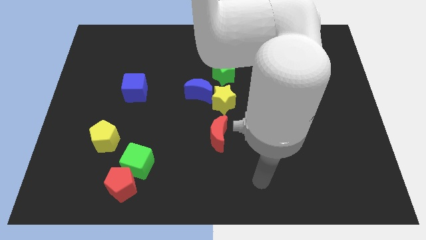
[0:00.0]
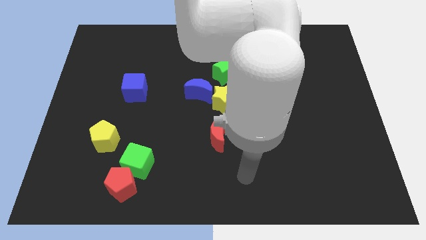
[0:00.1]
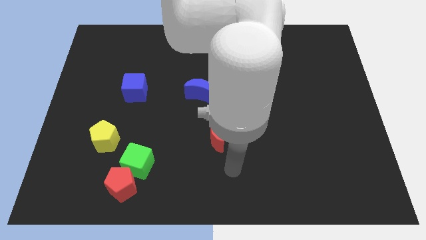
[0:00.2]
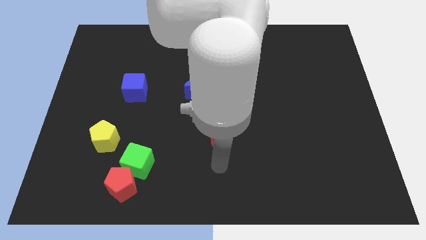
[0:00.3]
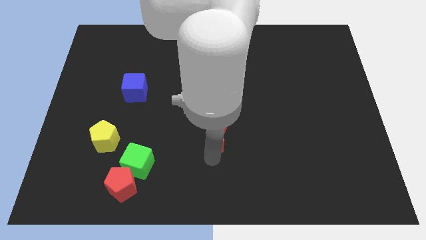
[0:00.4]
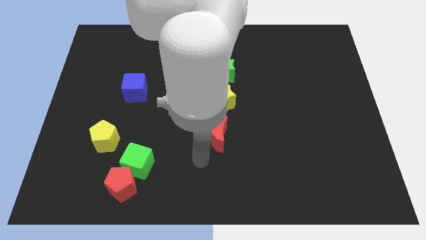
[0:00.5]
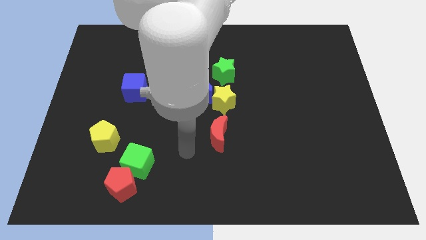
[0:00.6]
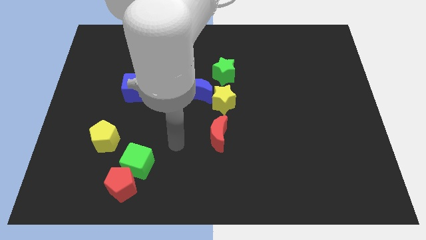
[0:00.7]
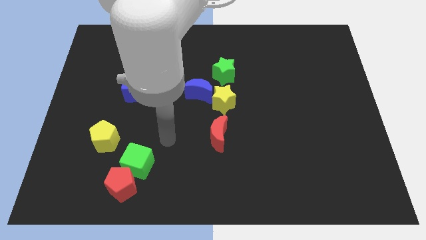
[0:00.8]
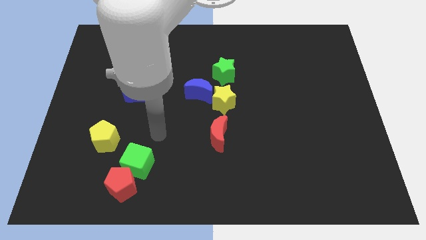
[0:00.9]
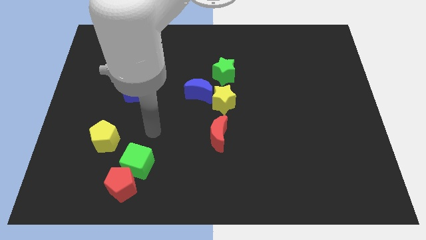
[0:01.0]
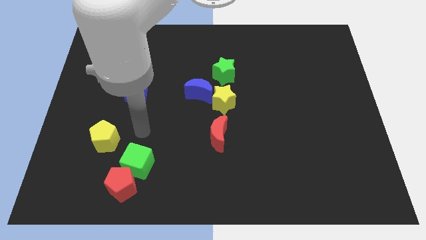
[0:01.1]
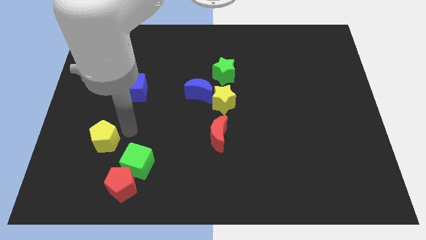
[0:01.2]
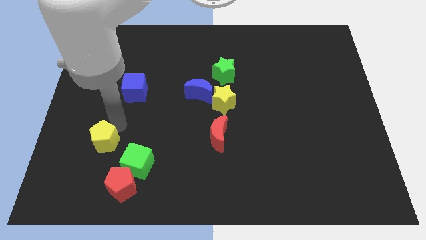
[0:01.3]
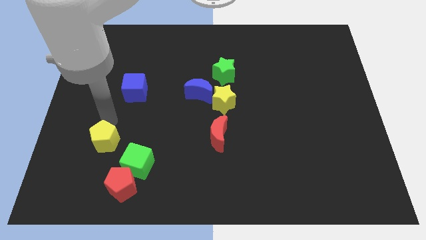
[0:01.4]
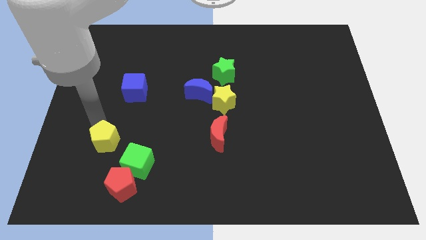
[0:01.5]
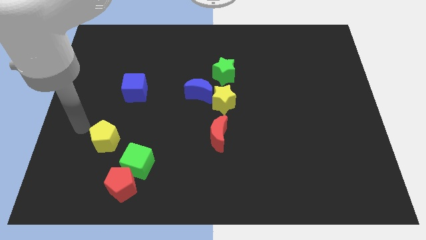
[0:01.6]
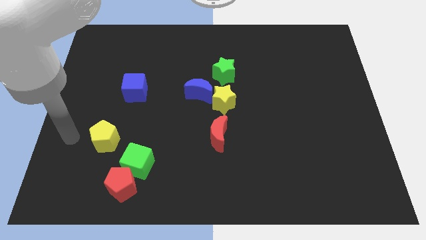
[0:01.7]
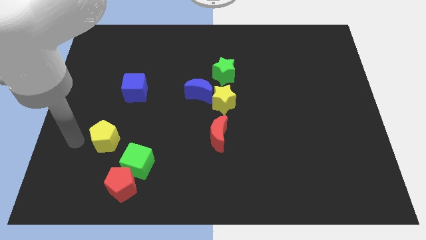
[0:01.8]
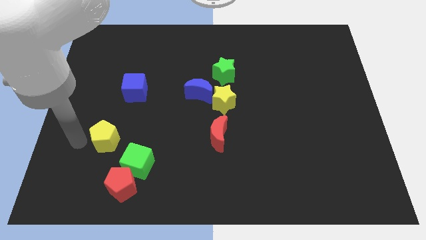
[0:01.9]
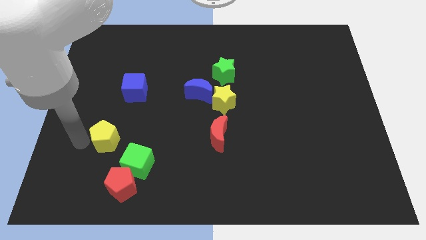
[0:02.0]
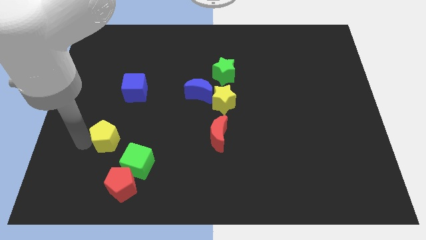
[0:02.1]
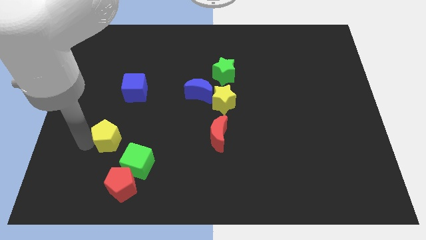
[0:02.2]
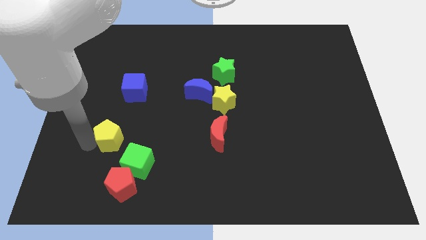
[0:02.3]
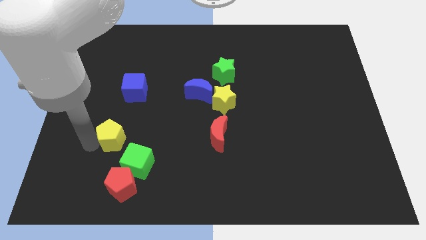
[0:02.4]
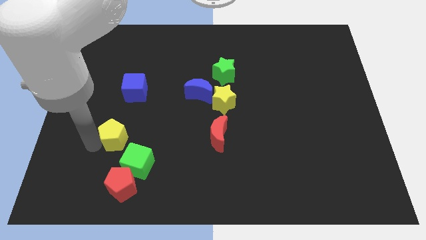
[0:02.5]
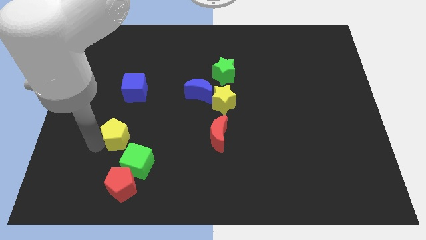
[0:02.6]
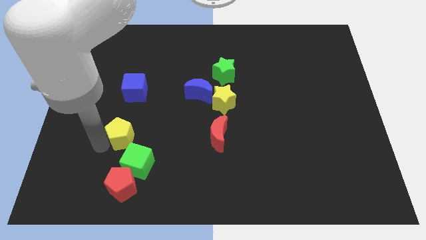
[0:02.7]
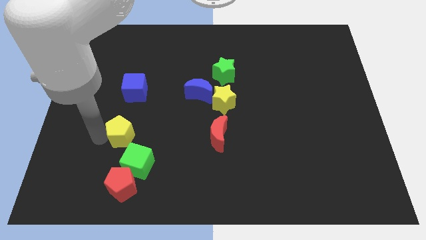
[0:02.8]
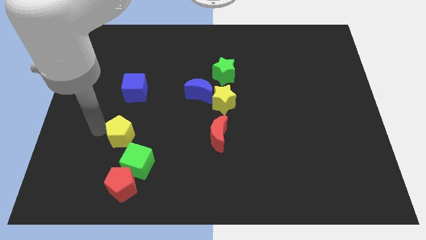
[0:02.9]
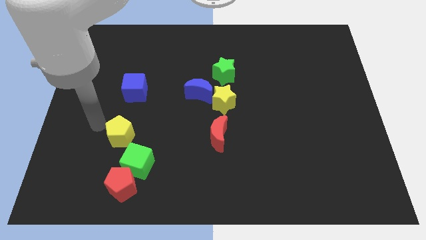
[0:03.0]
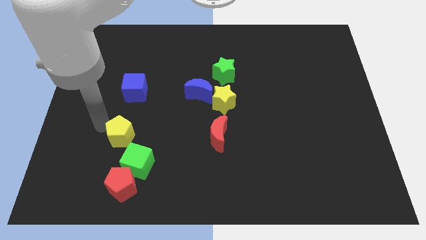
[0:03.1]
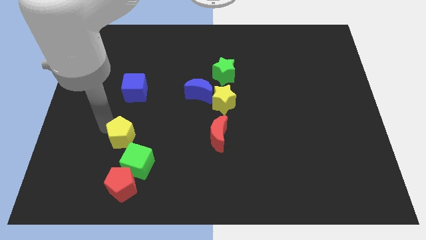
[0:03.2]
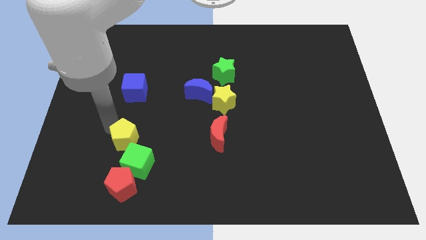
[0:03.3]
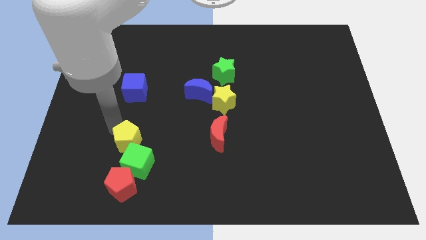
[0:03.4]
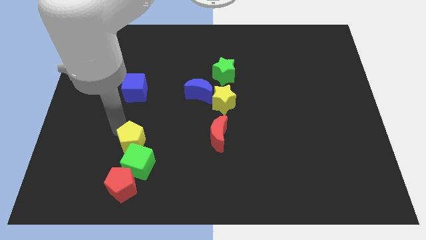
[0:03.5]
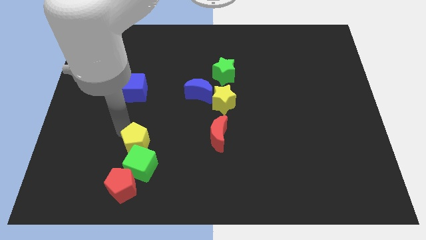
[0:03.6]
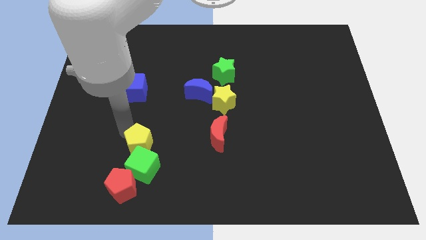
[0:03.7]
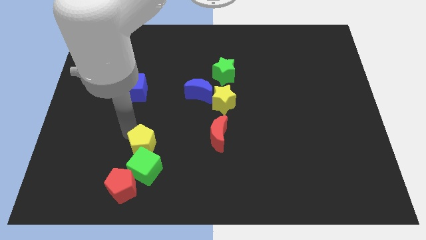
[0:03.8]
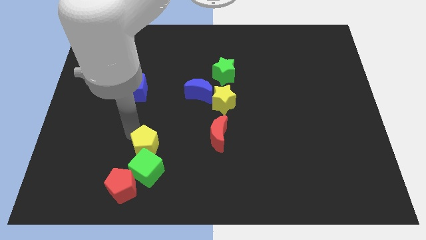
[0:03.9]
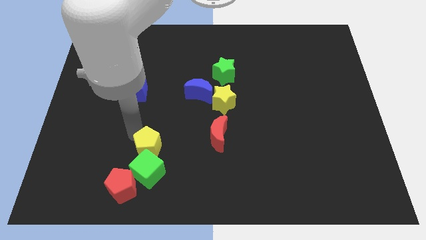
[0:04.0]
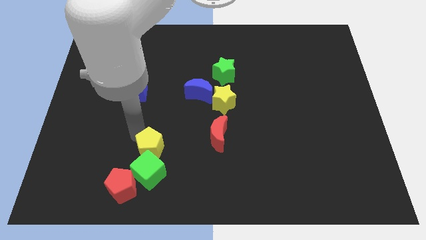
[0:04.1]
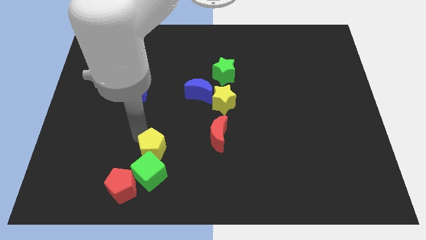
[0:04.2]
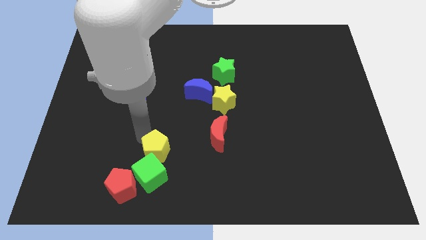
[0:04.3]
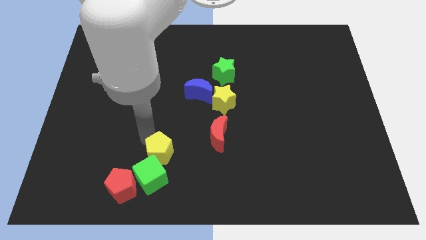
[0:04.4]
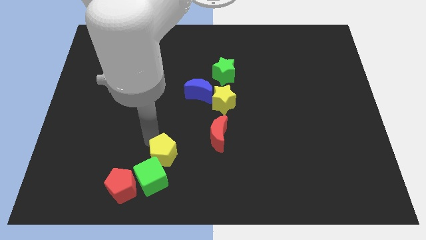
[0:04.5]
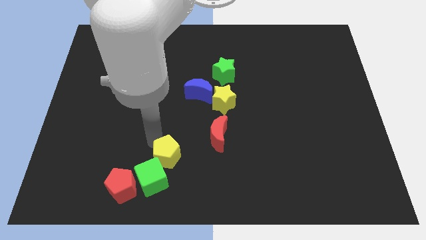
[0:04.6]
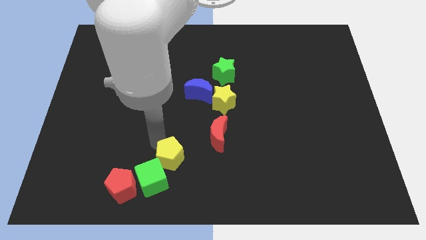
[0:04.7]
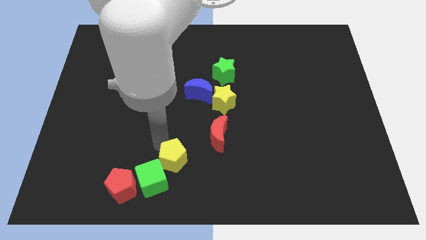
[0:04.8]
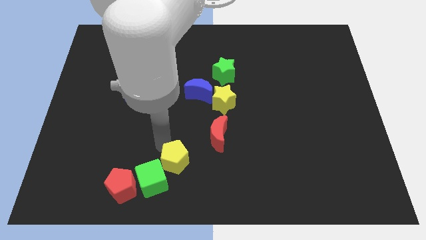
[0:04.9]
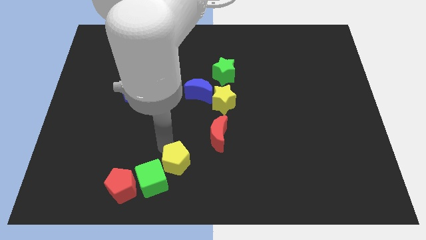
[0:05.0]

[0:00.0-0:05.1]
slide the yellow pentagon to the bottom side

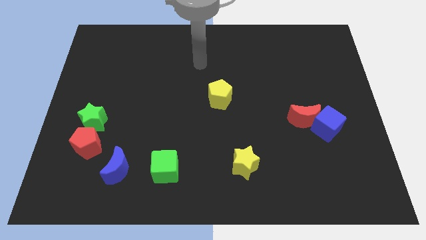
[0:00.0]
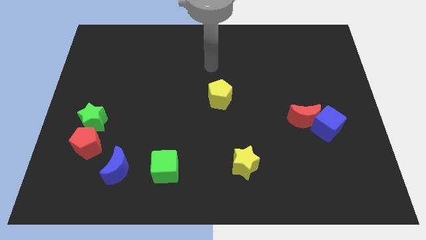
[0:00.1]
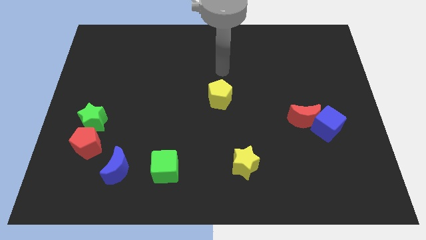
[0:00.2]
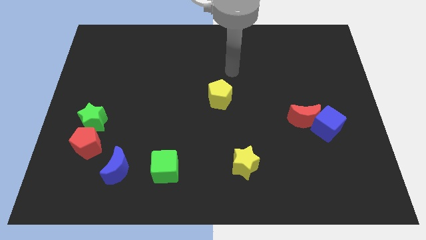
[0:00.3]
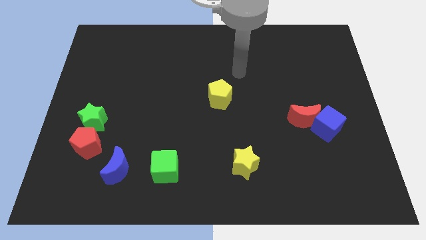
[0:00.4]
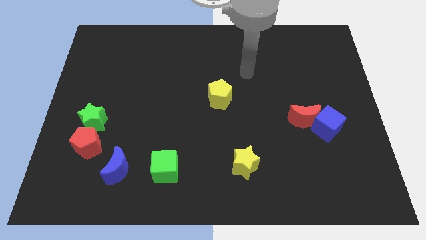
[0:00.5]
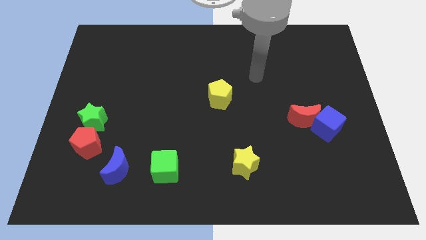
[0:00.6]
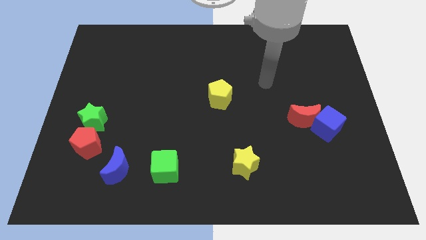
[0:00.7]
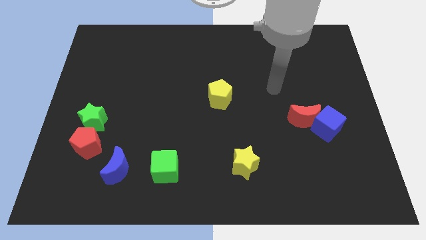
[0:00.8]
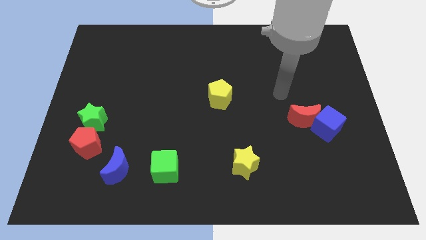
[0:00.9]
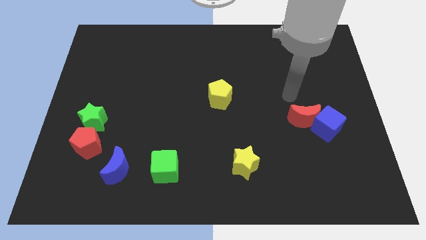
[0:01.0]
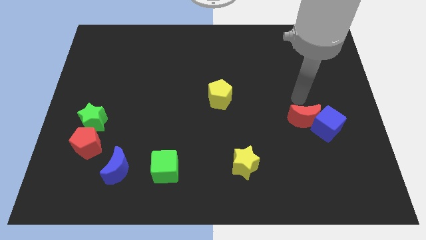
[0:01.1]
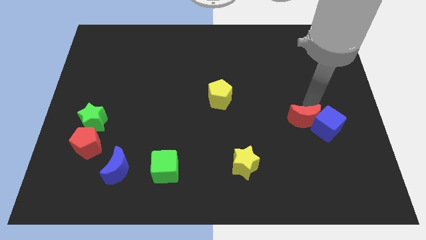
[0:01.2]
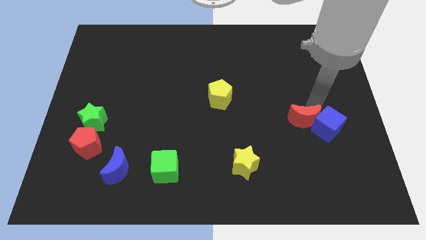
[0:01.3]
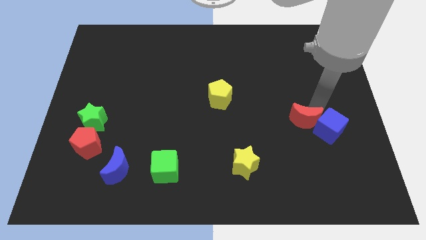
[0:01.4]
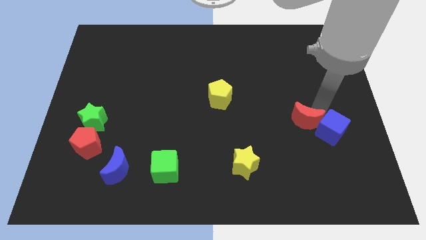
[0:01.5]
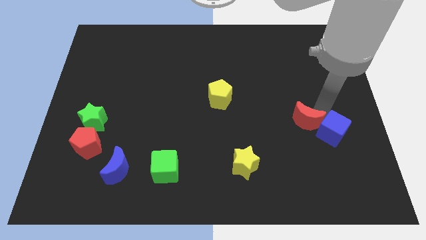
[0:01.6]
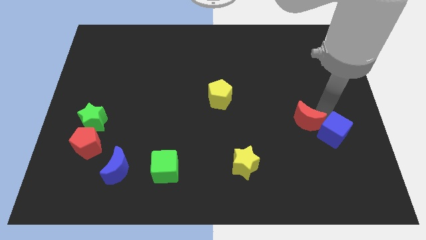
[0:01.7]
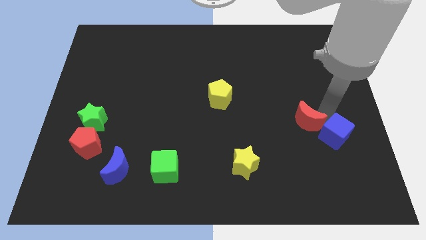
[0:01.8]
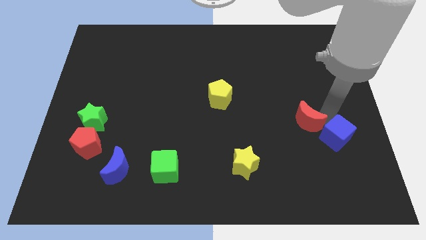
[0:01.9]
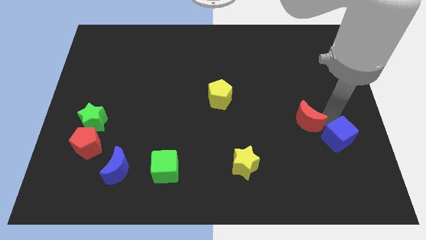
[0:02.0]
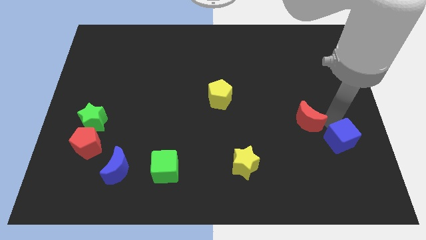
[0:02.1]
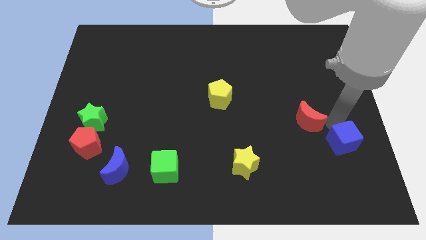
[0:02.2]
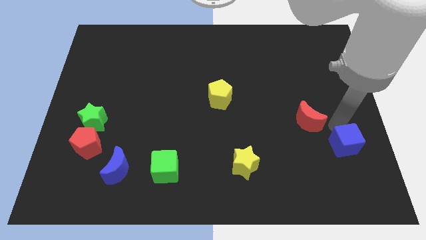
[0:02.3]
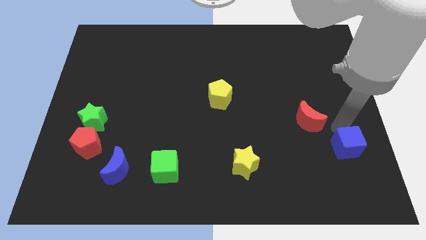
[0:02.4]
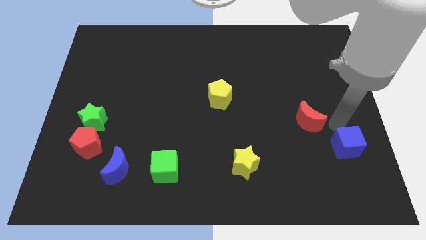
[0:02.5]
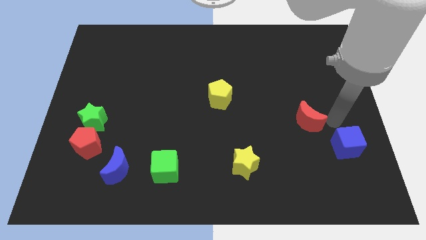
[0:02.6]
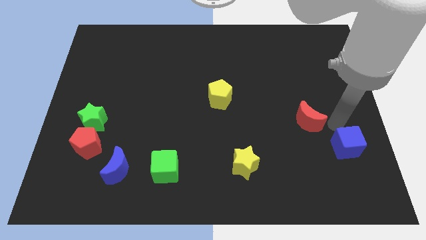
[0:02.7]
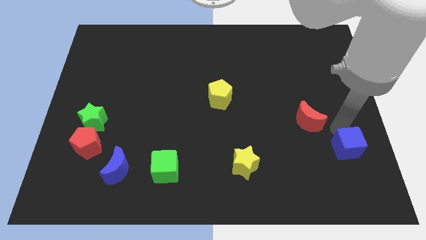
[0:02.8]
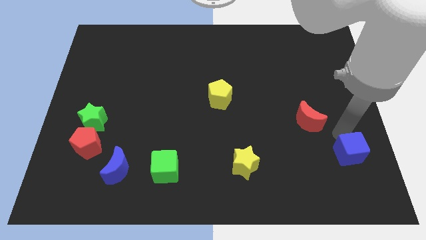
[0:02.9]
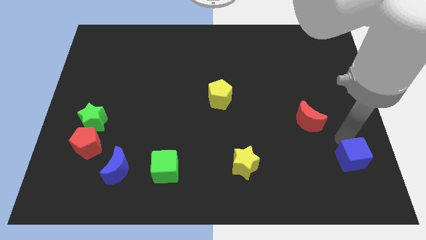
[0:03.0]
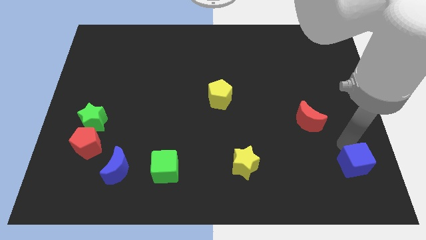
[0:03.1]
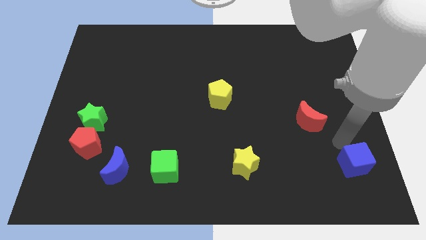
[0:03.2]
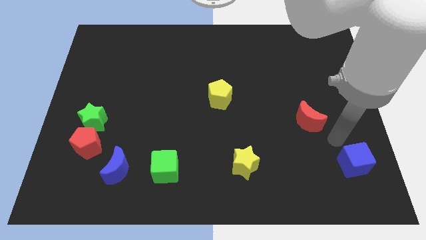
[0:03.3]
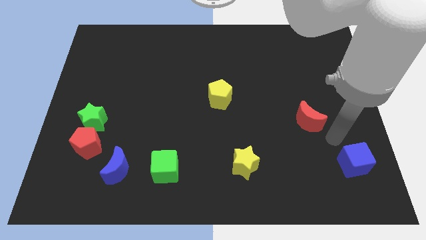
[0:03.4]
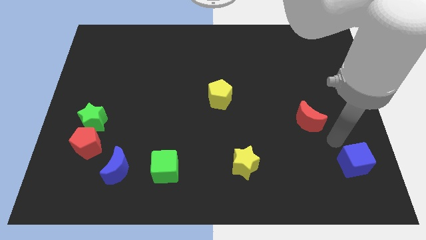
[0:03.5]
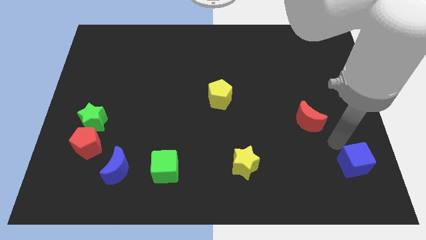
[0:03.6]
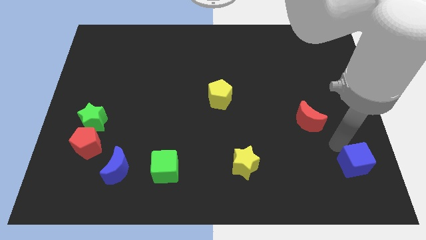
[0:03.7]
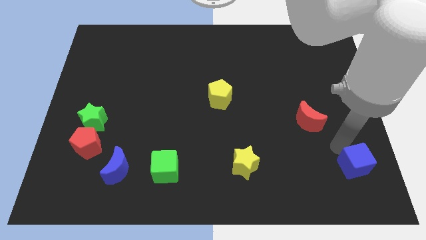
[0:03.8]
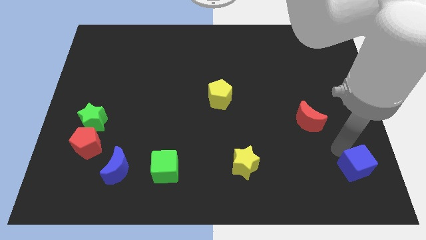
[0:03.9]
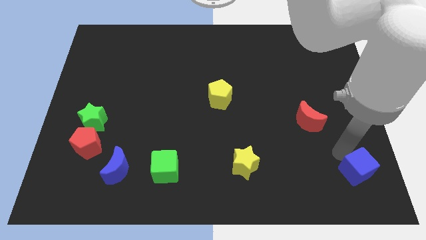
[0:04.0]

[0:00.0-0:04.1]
put the blue cube to the lower right corner
